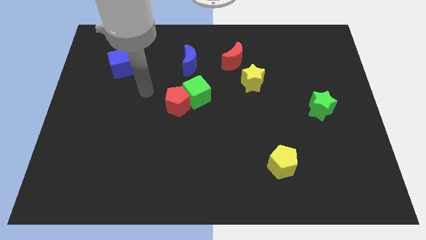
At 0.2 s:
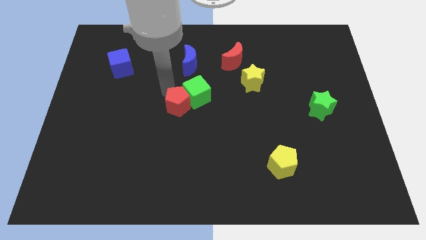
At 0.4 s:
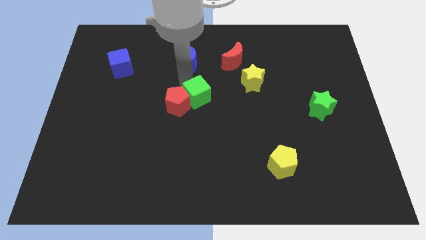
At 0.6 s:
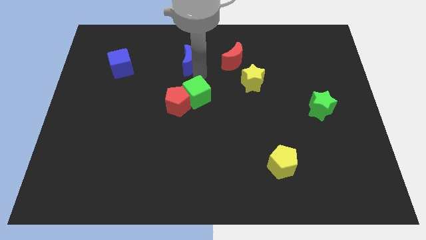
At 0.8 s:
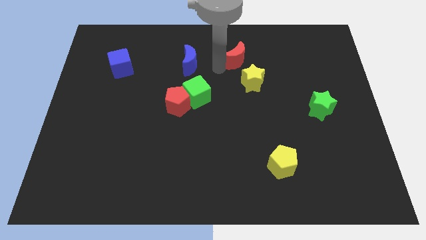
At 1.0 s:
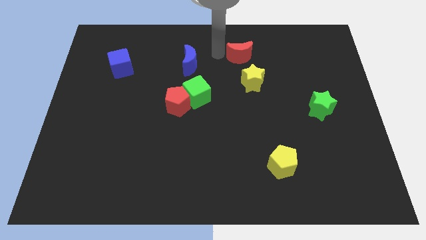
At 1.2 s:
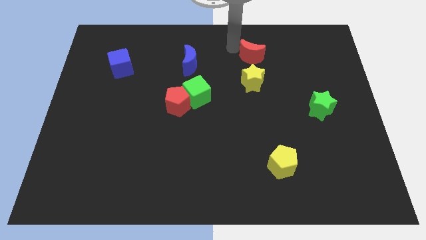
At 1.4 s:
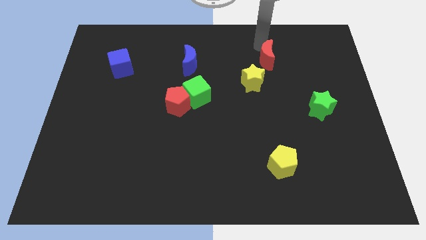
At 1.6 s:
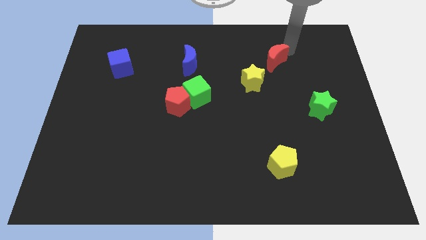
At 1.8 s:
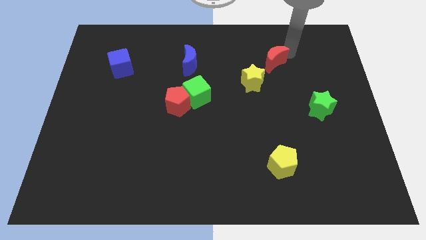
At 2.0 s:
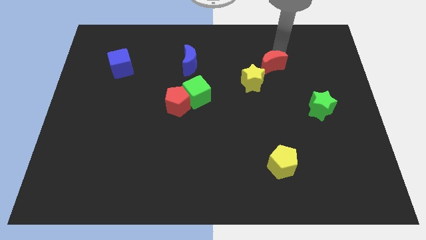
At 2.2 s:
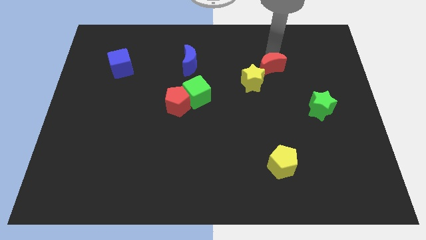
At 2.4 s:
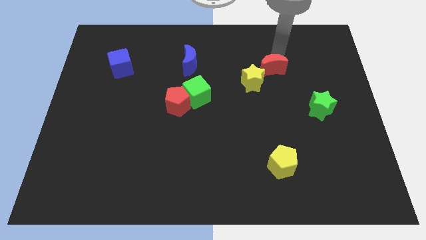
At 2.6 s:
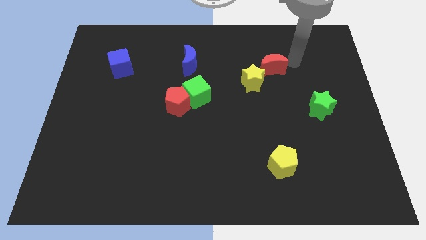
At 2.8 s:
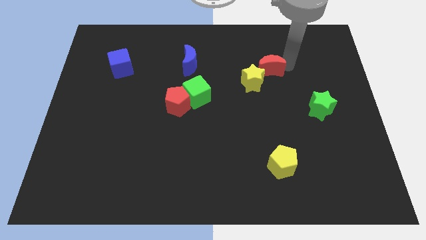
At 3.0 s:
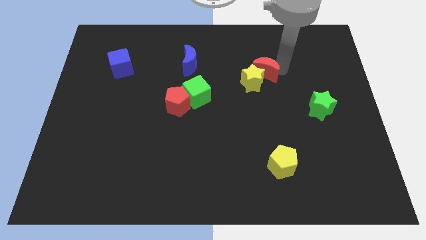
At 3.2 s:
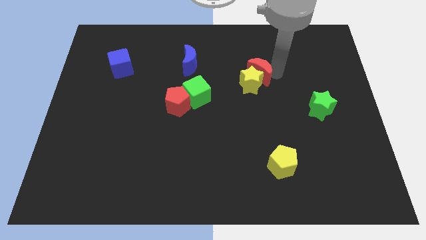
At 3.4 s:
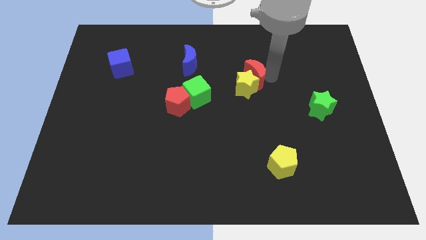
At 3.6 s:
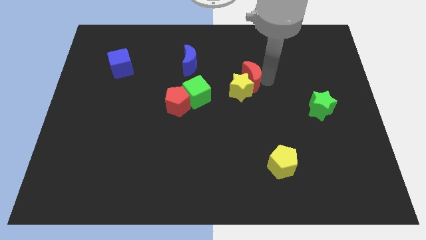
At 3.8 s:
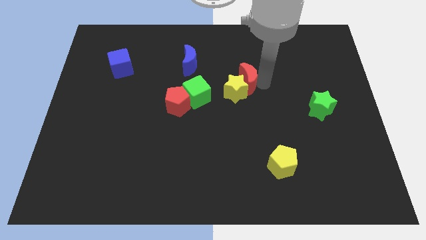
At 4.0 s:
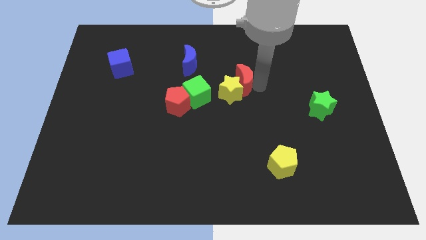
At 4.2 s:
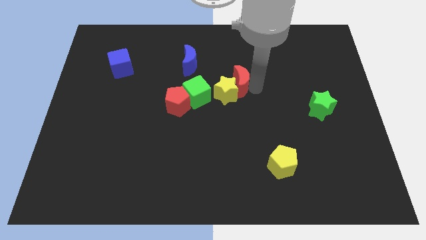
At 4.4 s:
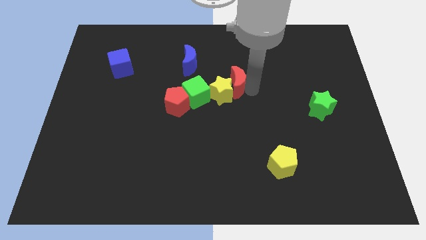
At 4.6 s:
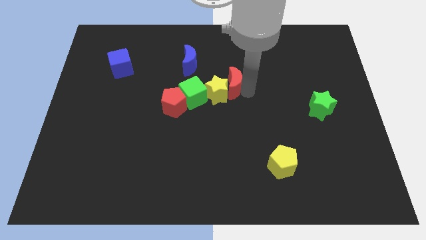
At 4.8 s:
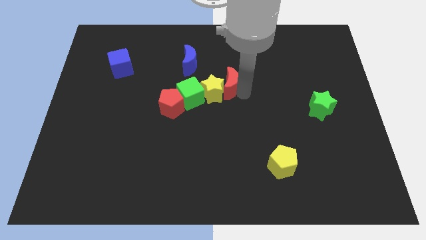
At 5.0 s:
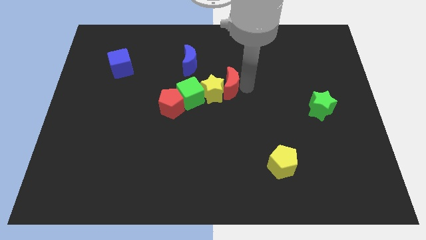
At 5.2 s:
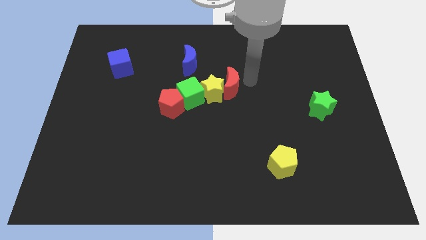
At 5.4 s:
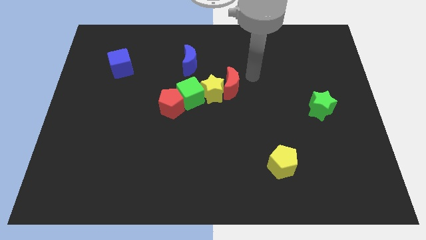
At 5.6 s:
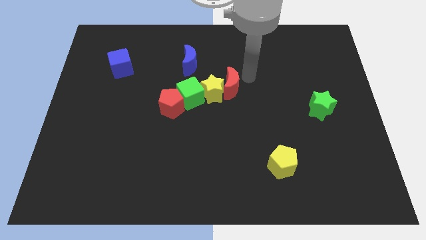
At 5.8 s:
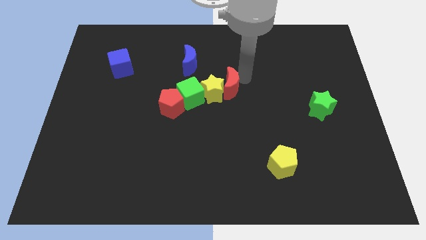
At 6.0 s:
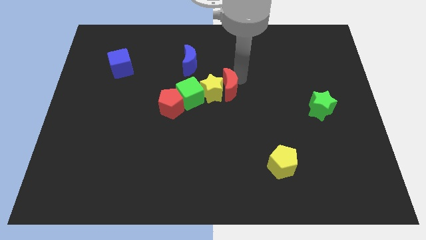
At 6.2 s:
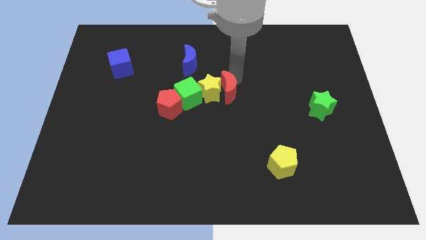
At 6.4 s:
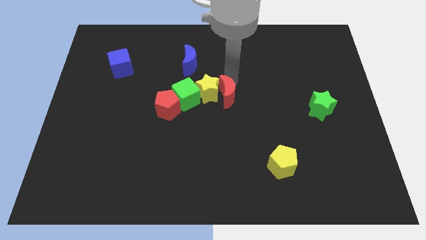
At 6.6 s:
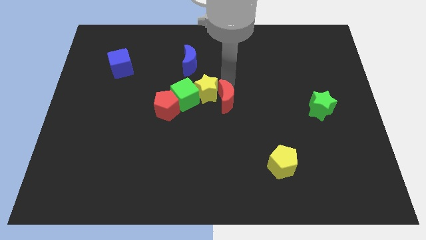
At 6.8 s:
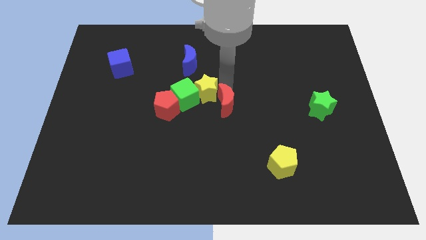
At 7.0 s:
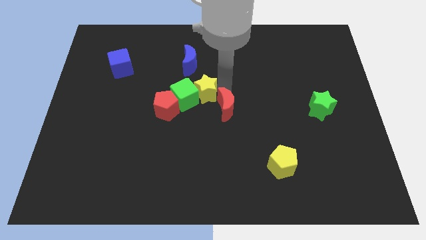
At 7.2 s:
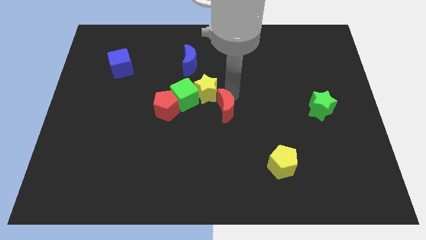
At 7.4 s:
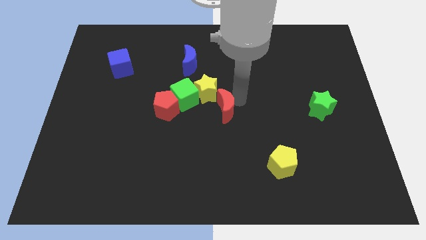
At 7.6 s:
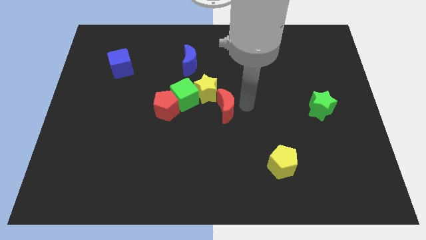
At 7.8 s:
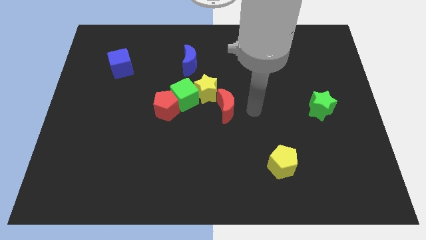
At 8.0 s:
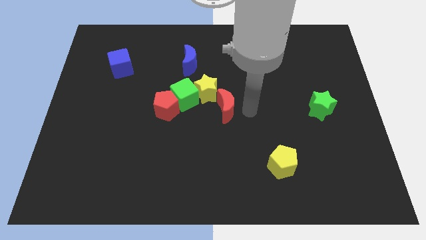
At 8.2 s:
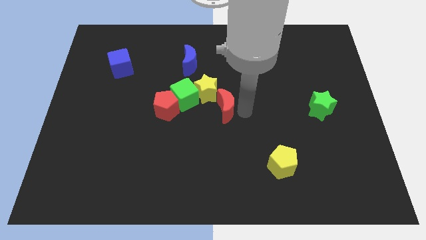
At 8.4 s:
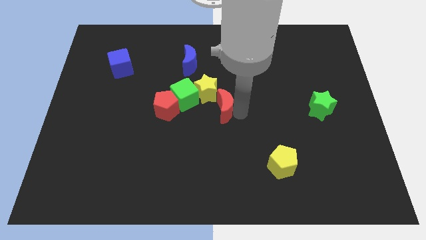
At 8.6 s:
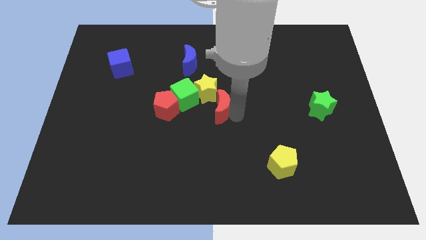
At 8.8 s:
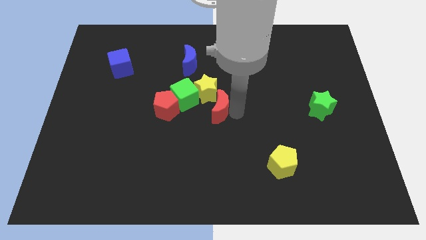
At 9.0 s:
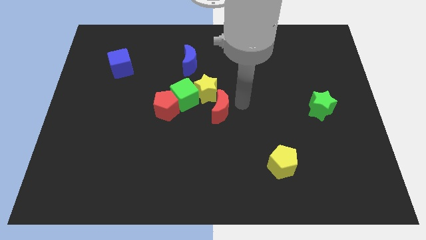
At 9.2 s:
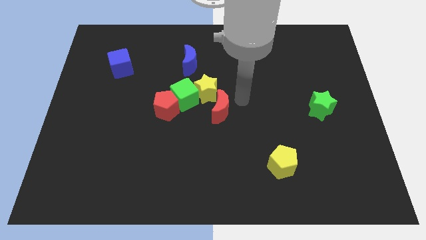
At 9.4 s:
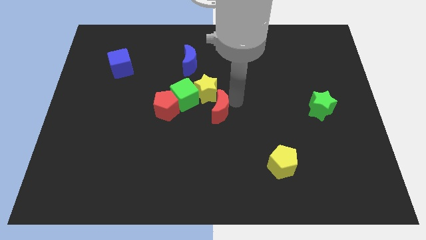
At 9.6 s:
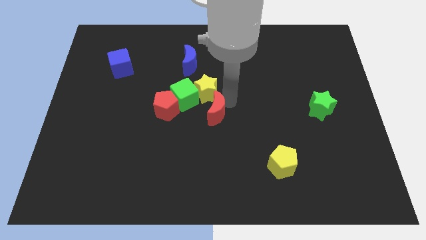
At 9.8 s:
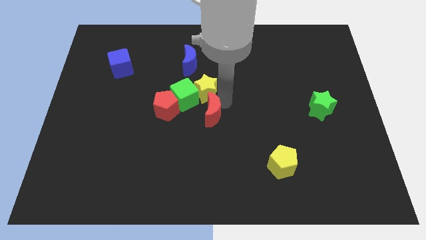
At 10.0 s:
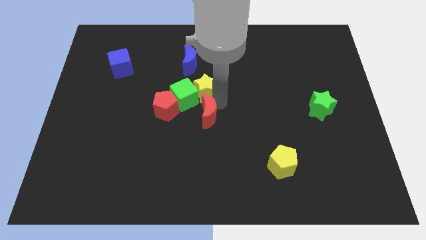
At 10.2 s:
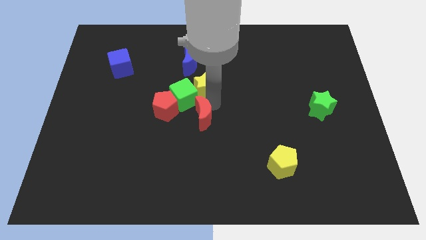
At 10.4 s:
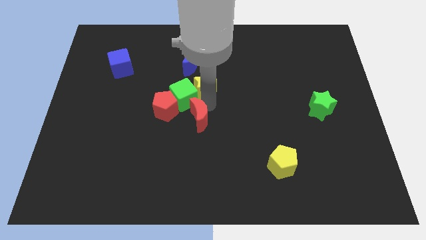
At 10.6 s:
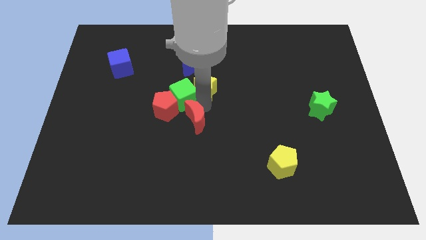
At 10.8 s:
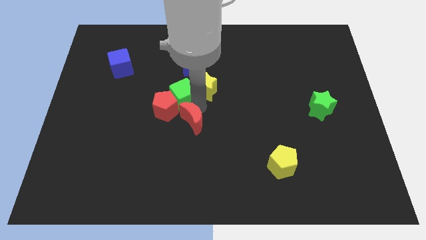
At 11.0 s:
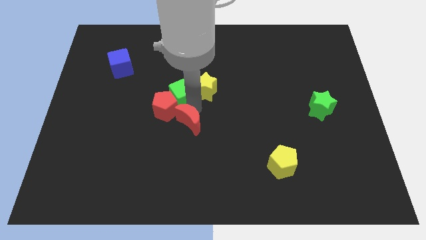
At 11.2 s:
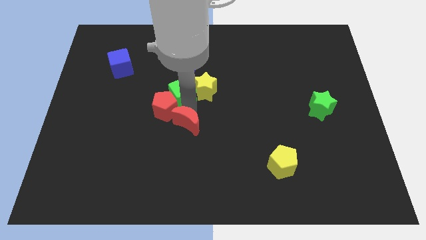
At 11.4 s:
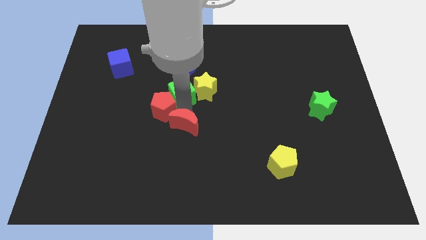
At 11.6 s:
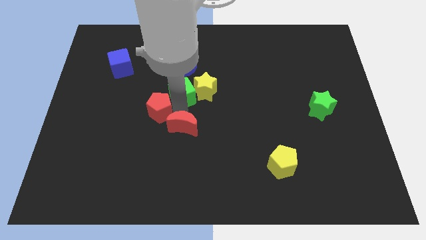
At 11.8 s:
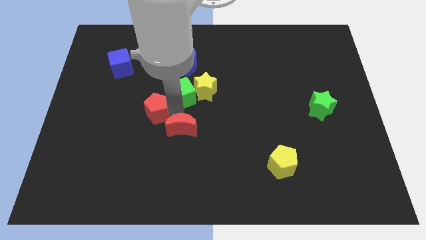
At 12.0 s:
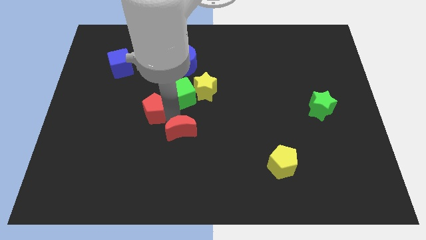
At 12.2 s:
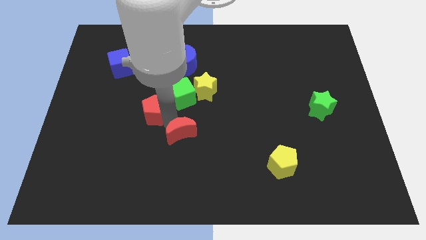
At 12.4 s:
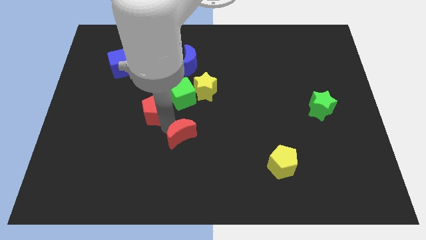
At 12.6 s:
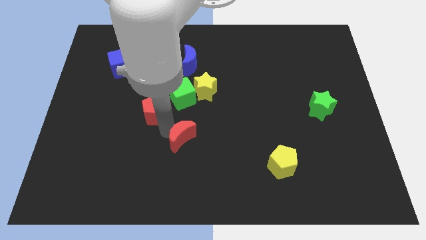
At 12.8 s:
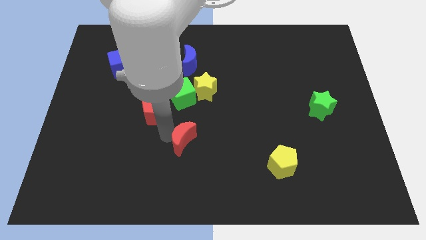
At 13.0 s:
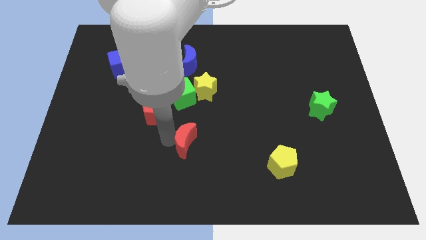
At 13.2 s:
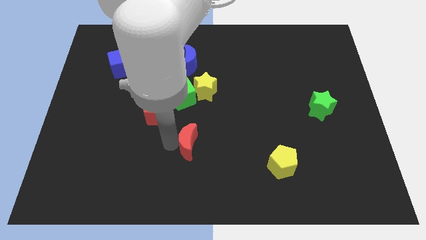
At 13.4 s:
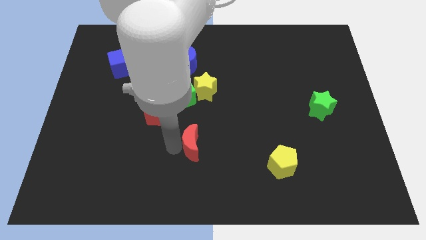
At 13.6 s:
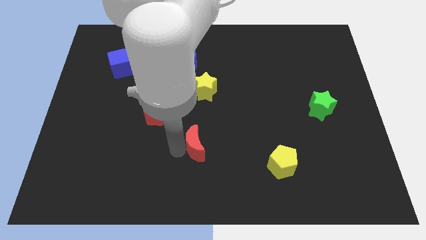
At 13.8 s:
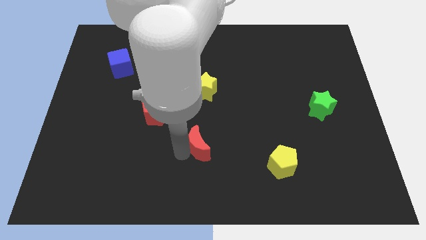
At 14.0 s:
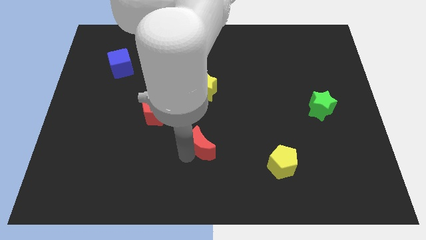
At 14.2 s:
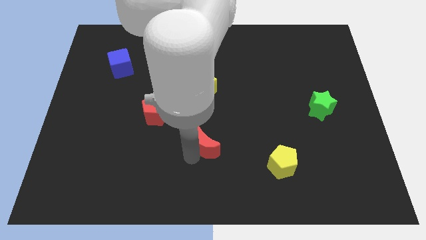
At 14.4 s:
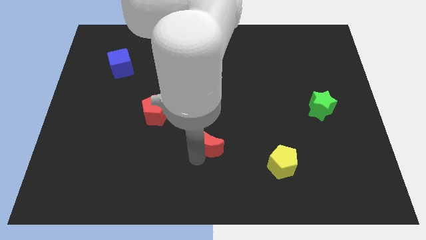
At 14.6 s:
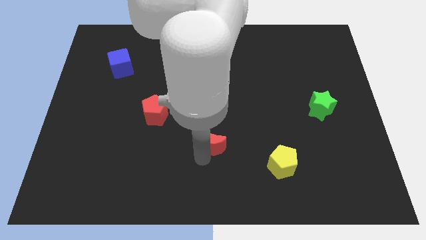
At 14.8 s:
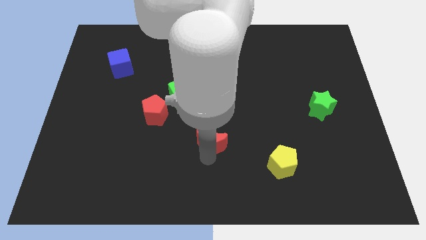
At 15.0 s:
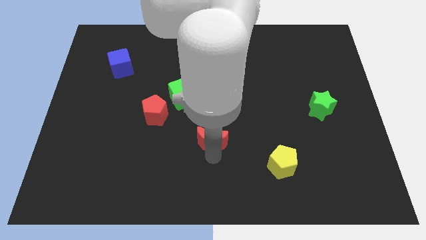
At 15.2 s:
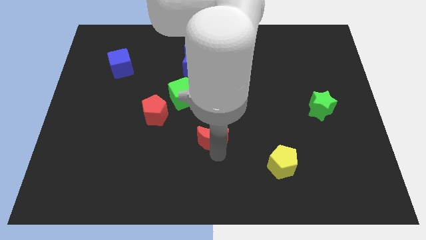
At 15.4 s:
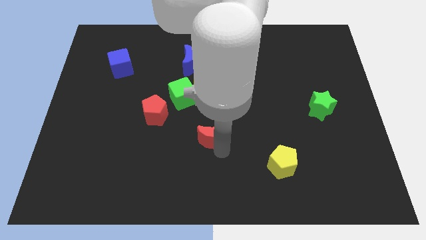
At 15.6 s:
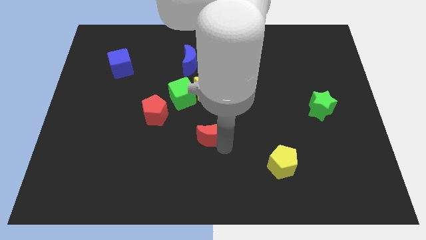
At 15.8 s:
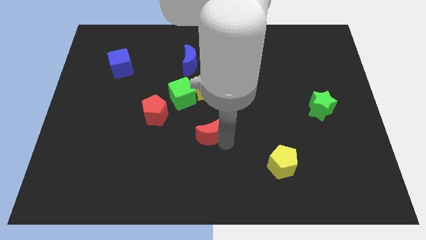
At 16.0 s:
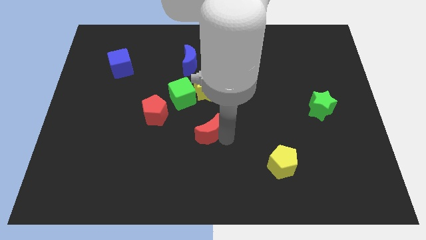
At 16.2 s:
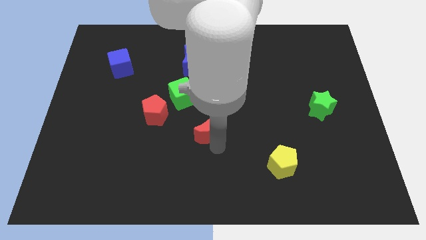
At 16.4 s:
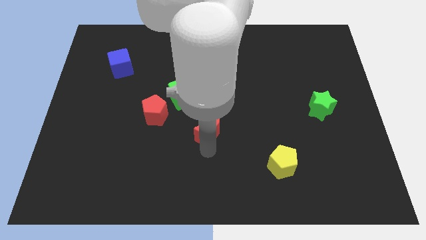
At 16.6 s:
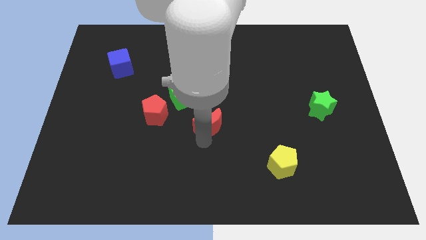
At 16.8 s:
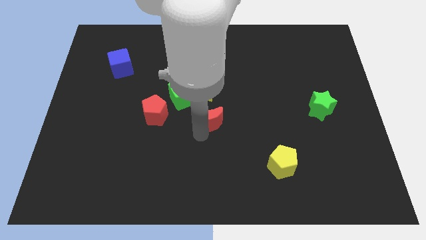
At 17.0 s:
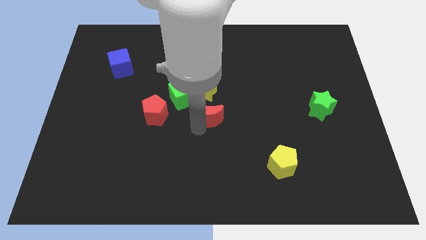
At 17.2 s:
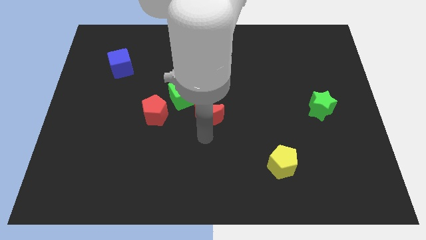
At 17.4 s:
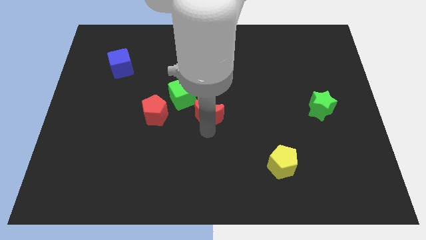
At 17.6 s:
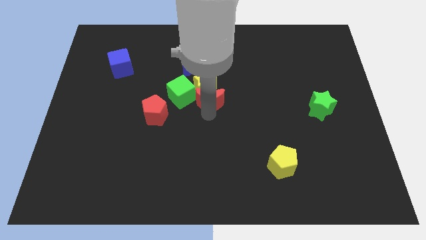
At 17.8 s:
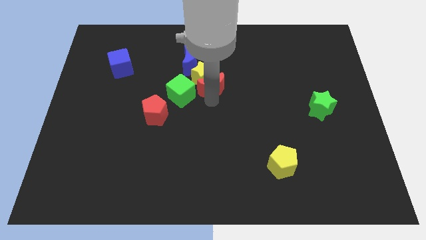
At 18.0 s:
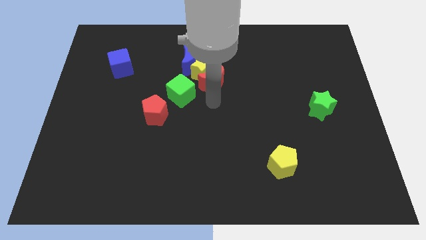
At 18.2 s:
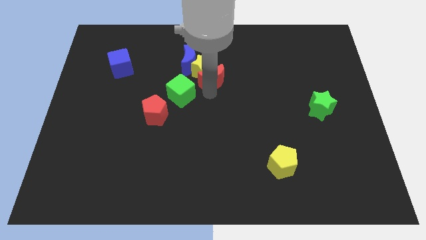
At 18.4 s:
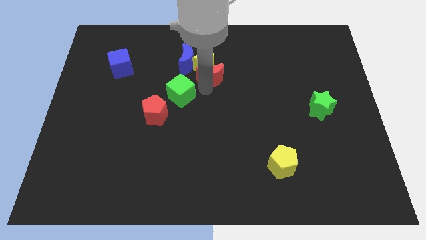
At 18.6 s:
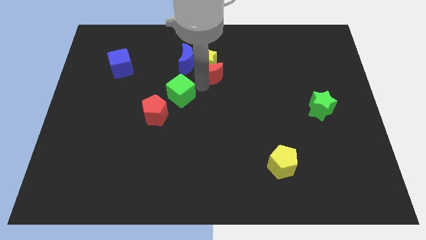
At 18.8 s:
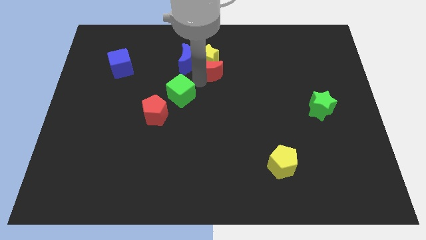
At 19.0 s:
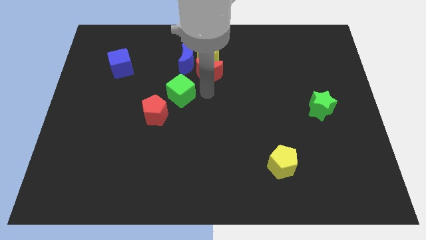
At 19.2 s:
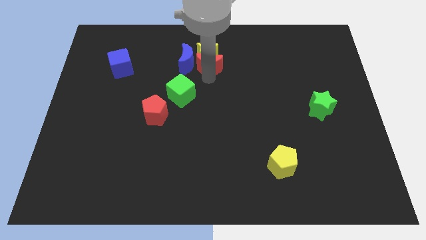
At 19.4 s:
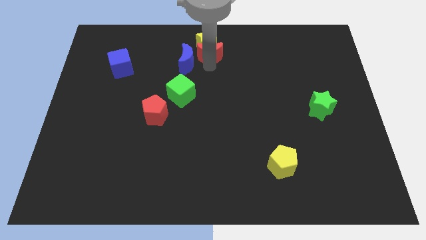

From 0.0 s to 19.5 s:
push the red moon to the towards your base
